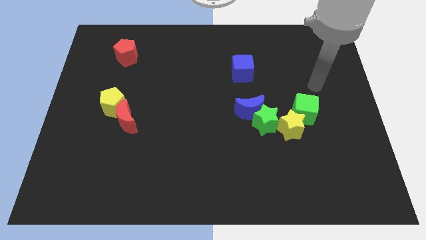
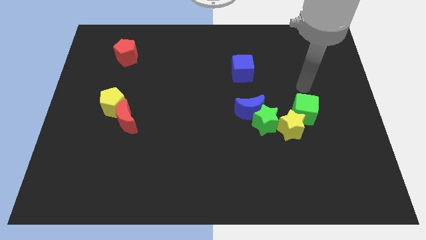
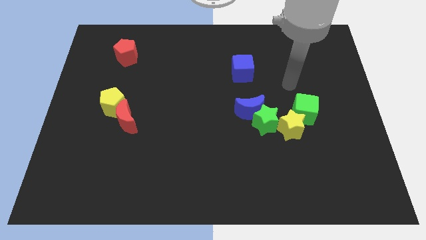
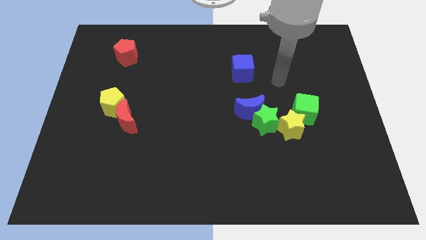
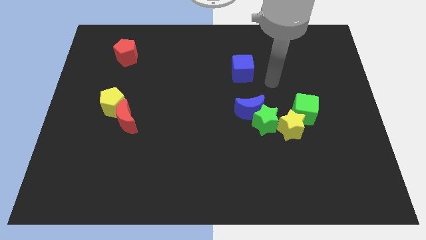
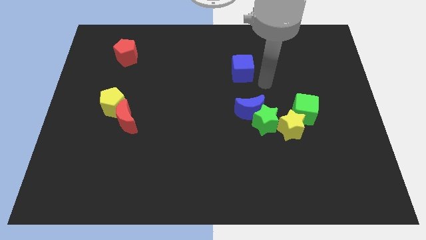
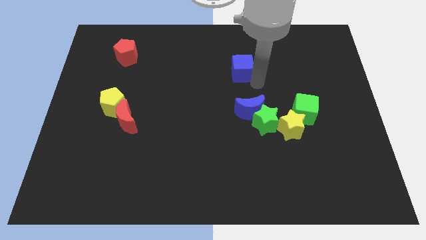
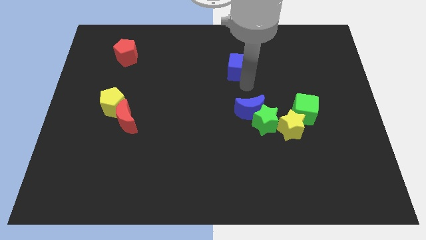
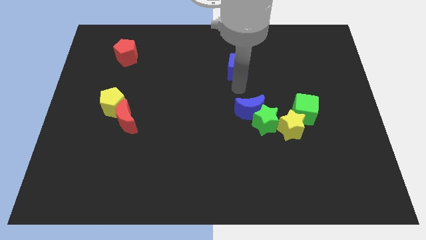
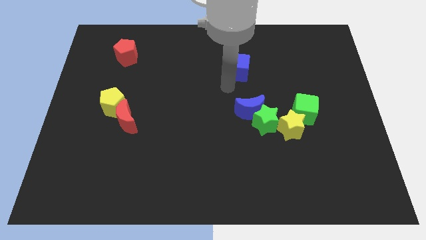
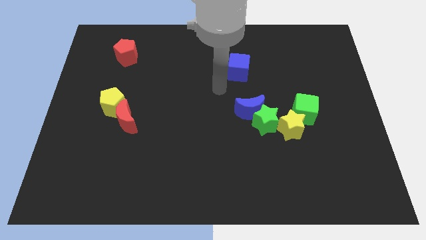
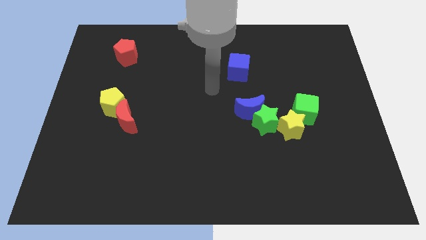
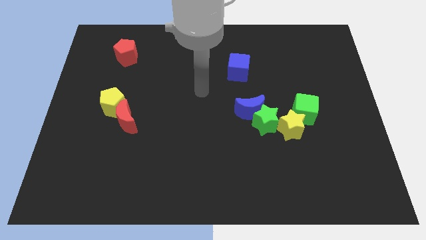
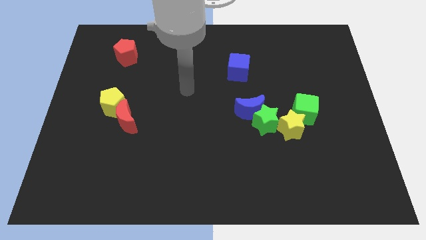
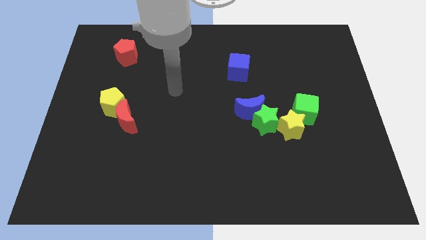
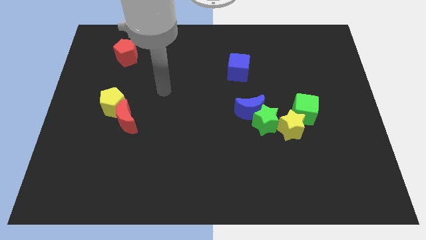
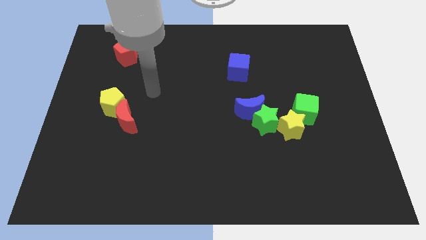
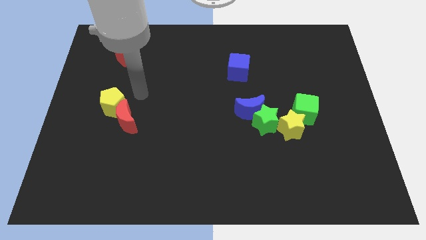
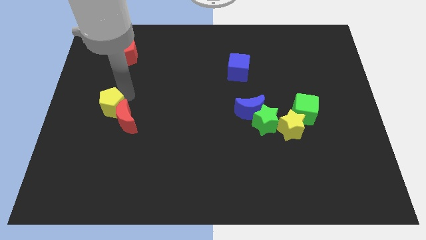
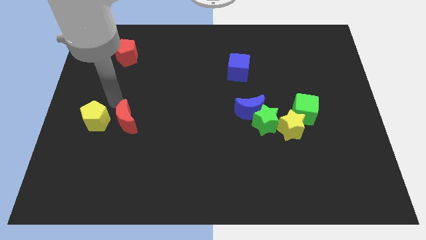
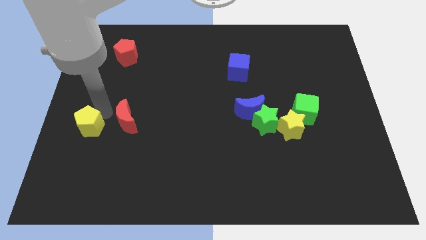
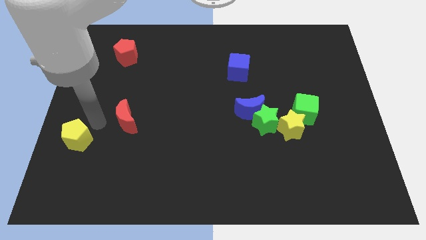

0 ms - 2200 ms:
pull the red moon apart from the yellow pentagon

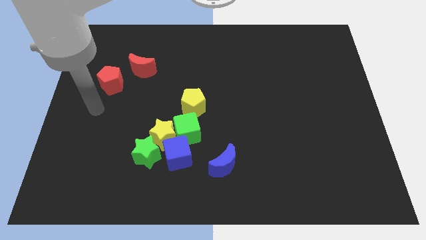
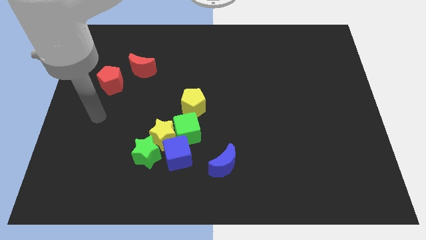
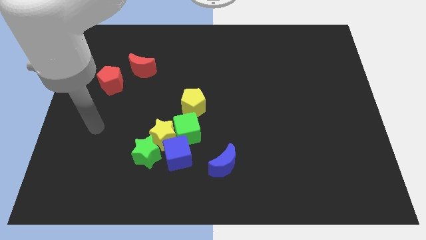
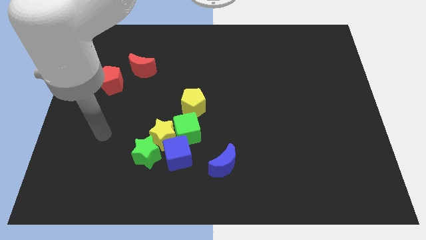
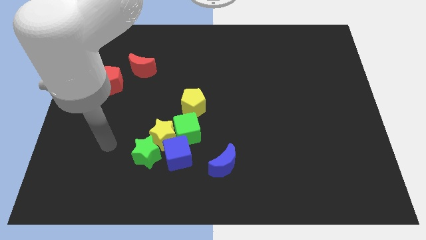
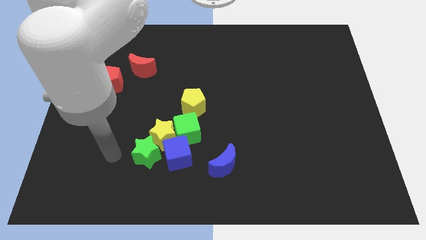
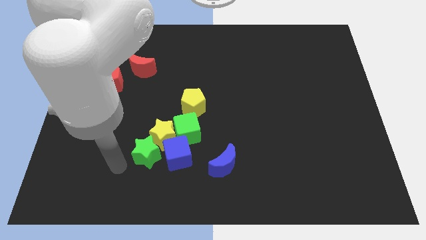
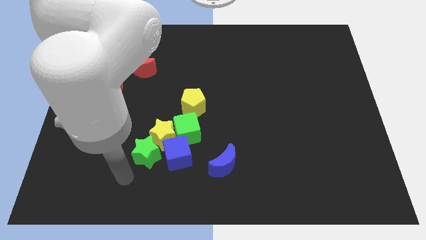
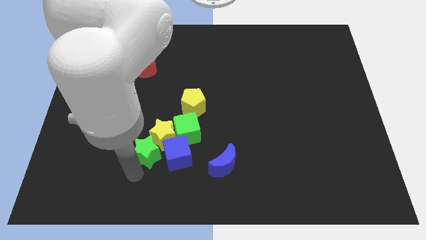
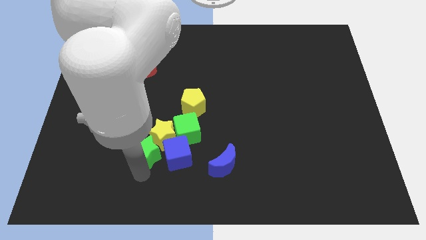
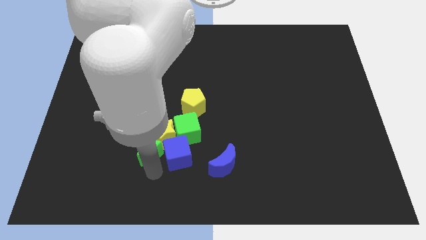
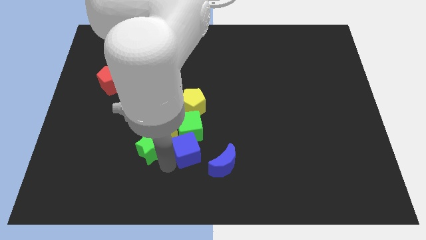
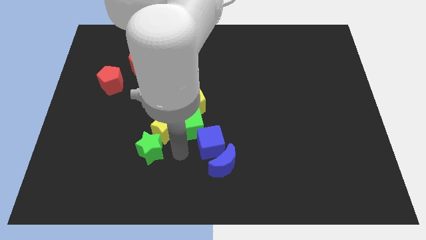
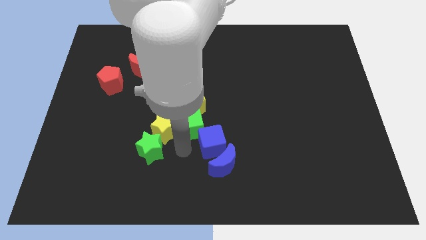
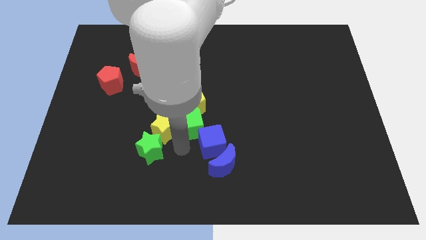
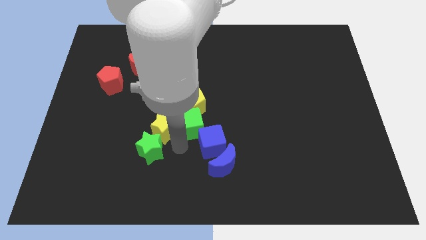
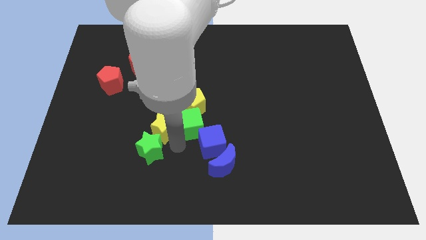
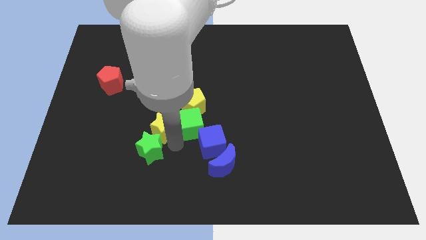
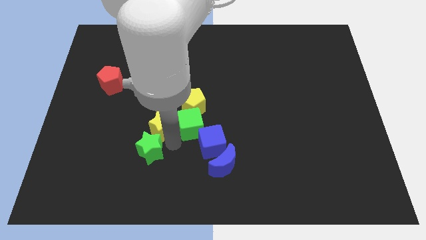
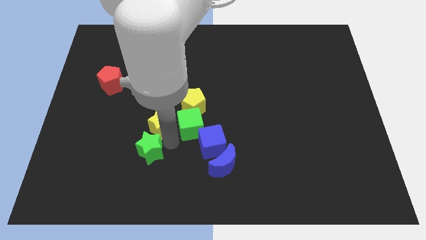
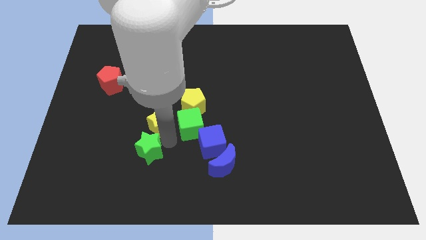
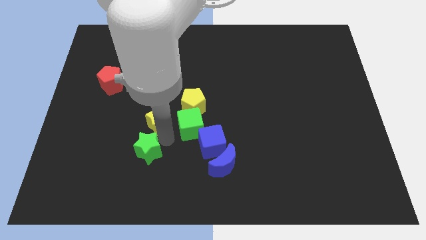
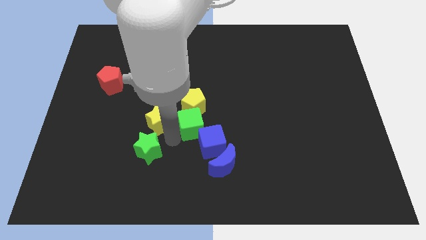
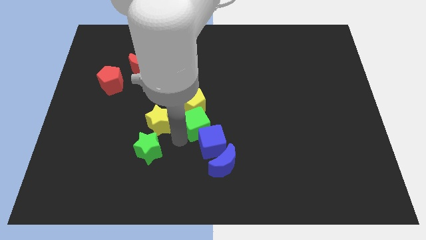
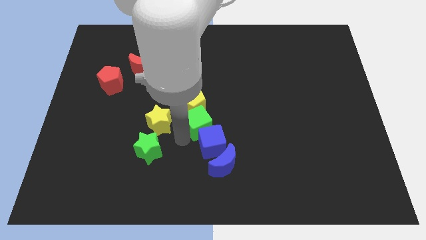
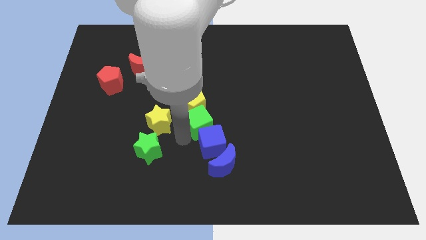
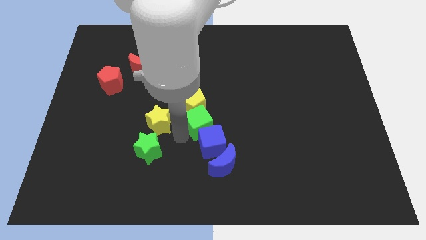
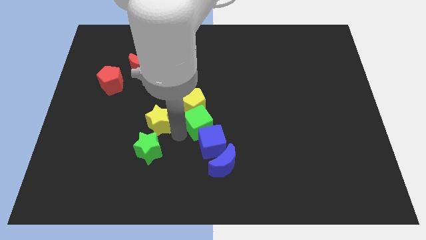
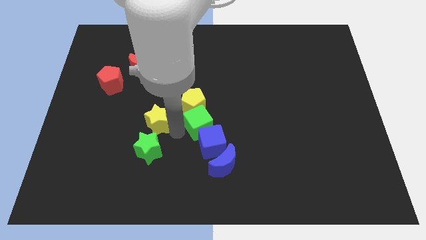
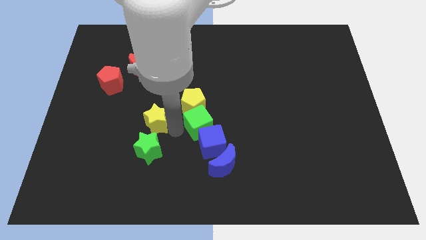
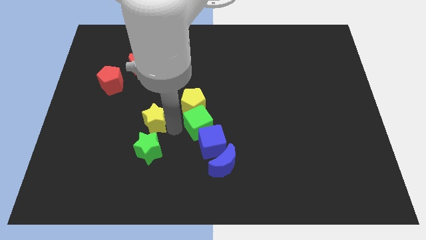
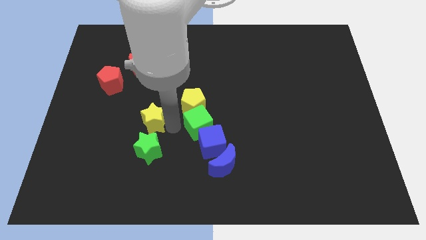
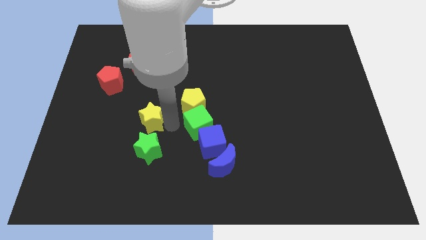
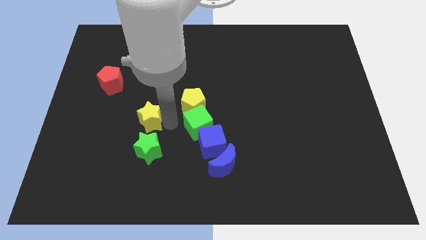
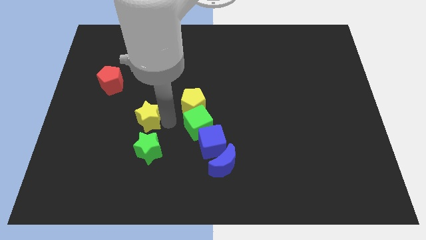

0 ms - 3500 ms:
move the yellow star away from the green cube, green star, and blue cube

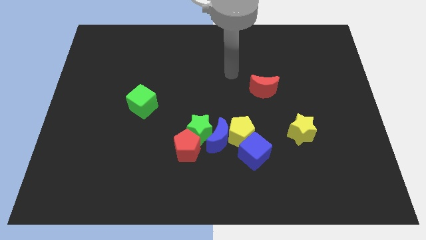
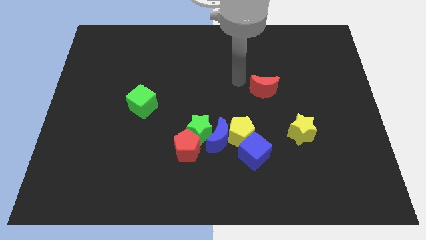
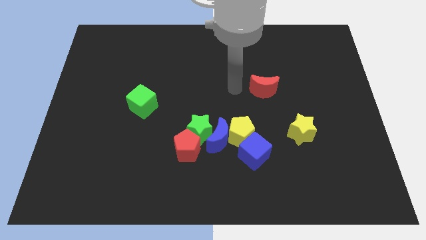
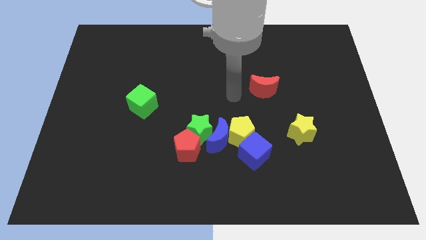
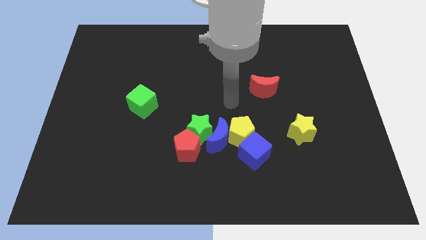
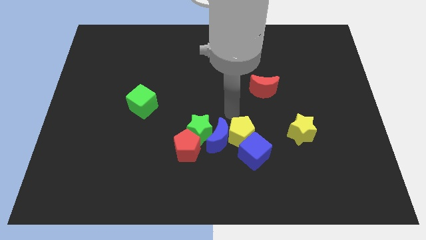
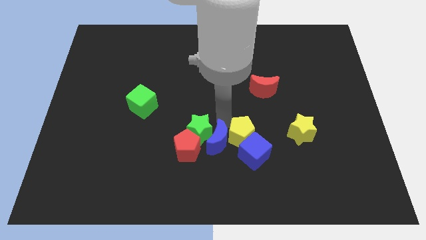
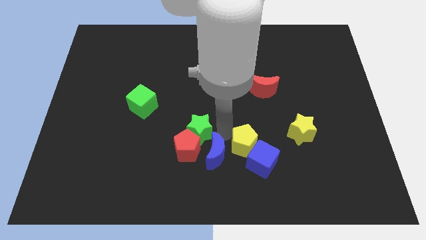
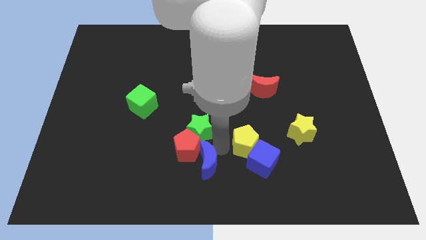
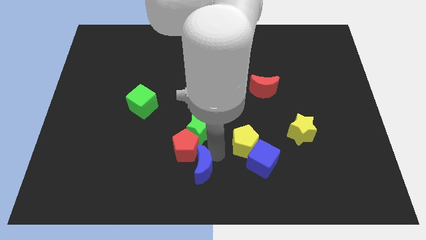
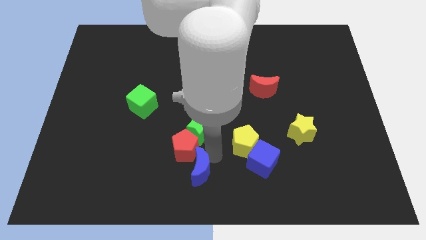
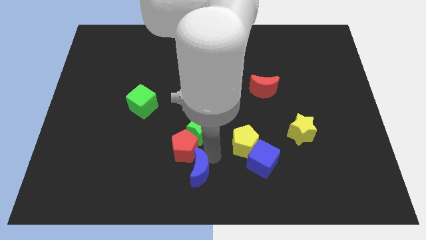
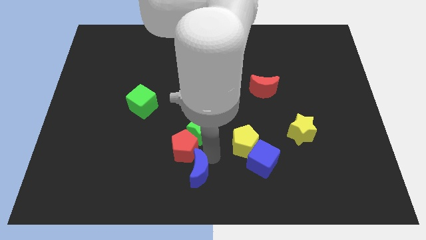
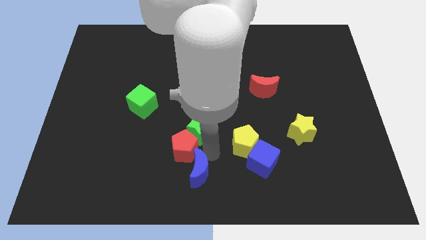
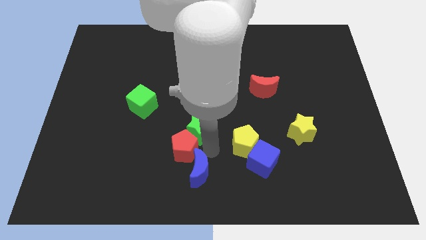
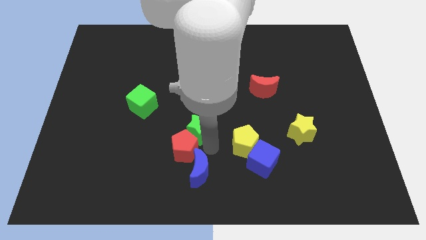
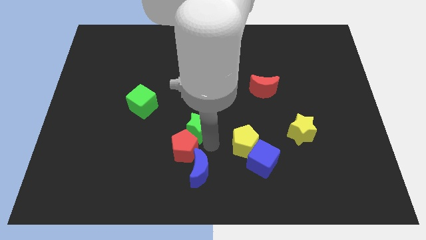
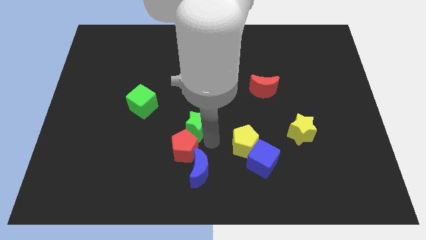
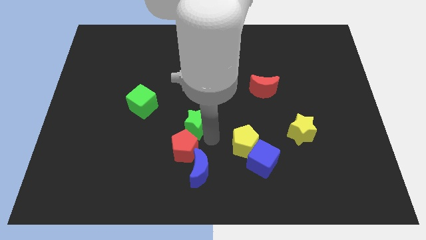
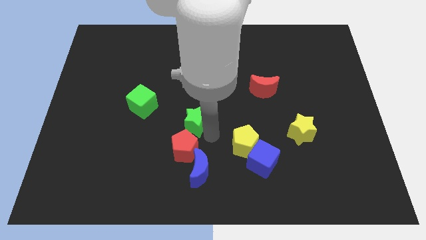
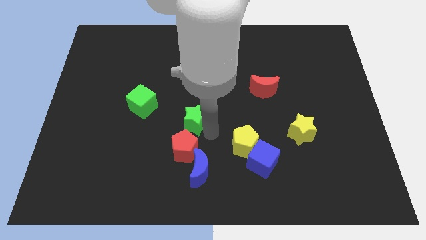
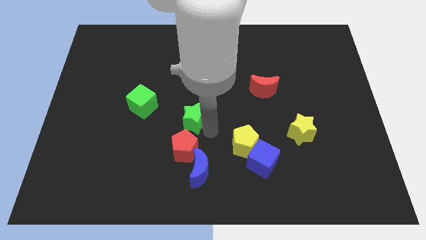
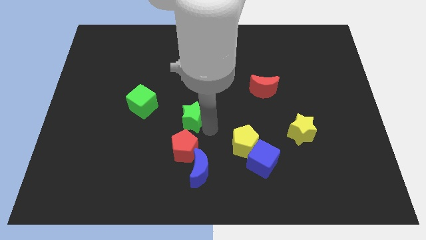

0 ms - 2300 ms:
separate the green star from the blue moon, red pentagon, and yellow pentagon

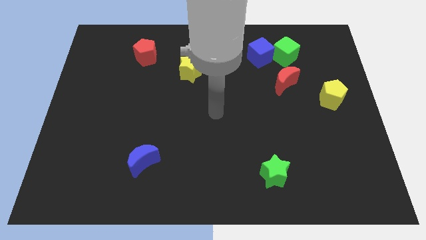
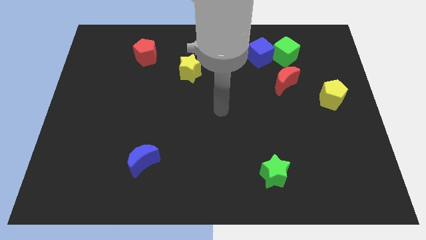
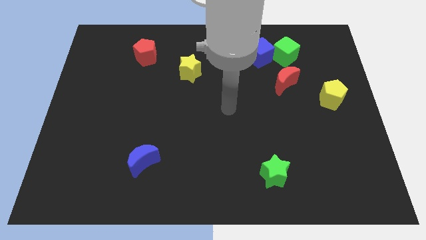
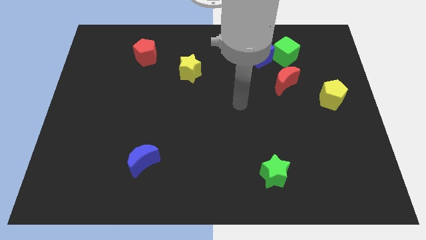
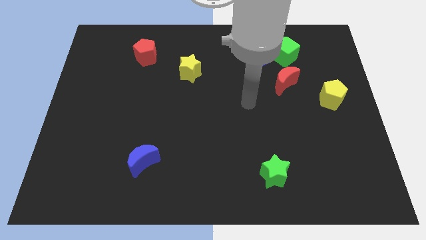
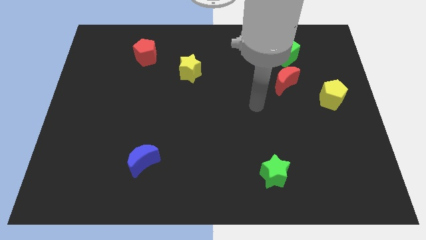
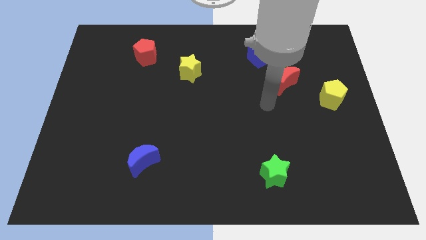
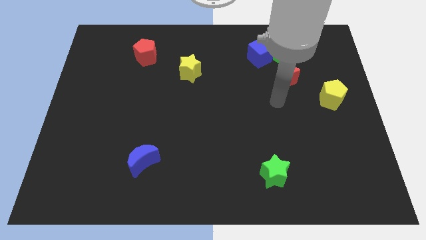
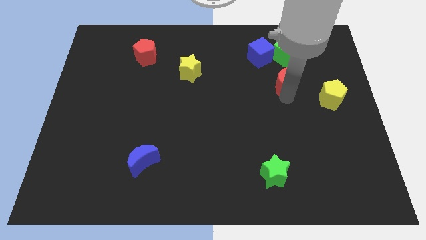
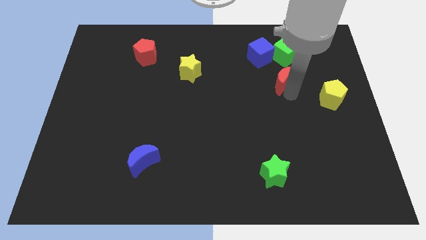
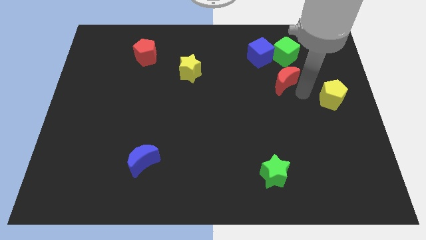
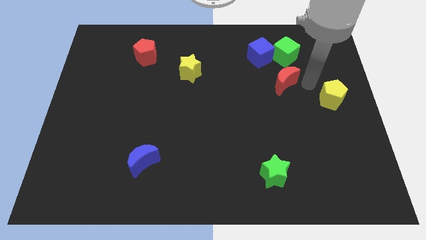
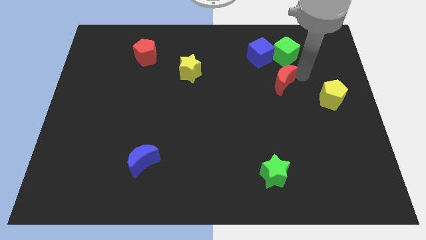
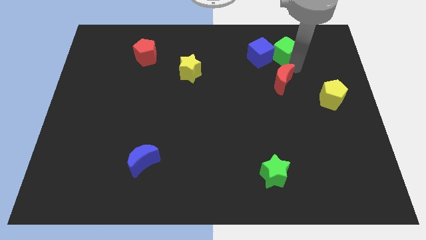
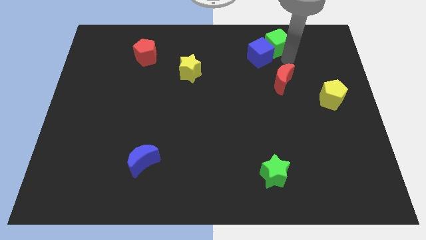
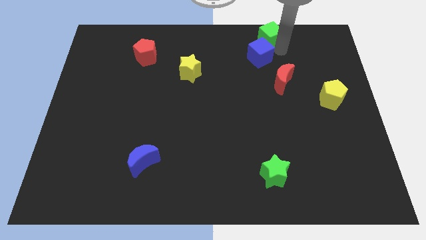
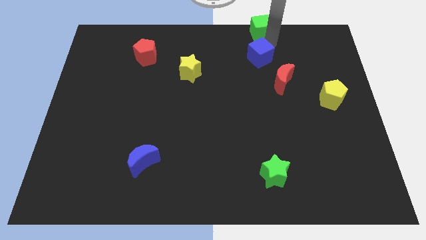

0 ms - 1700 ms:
move the blue cube away from the green cube
